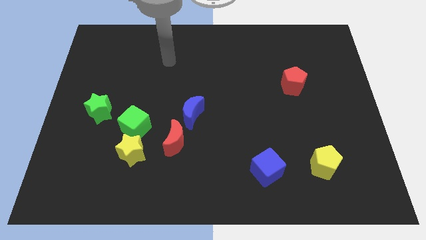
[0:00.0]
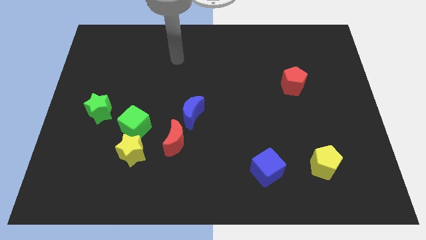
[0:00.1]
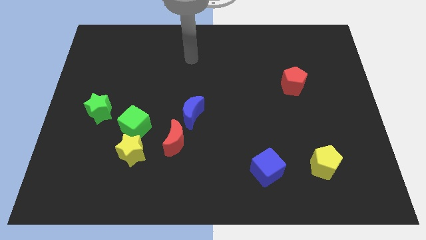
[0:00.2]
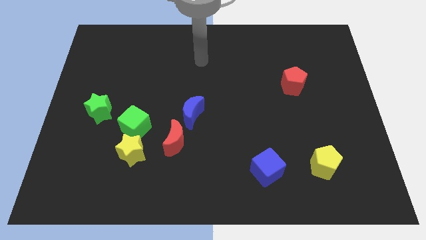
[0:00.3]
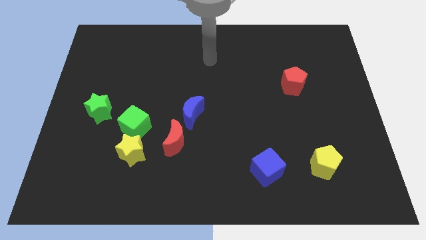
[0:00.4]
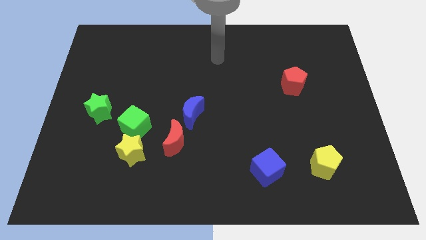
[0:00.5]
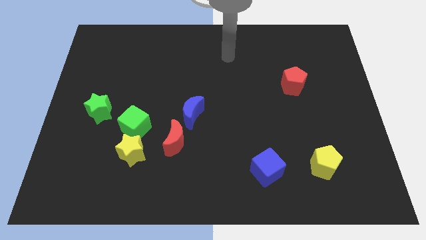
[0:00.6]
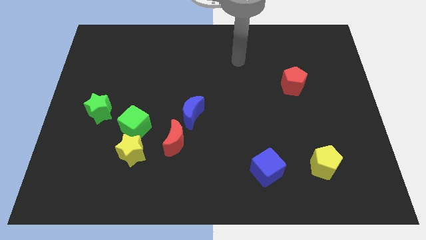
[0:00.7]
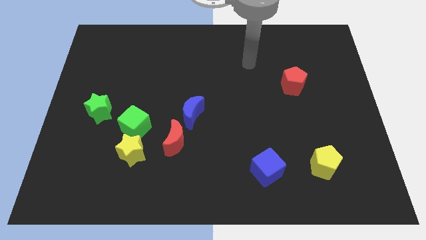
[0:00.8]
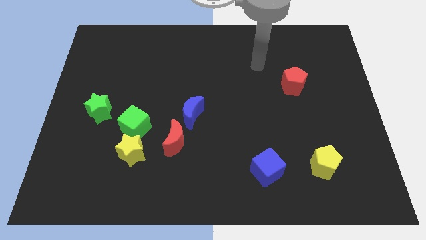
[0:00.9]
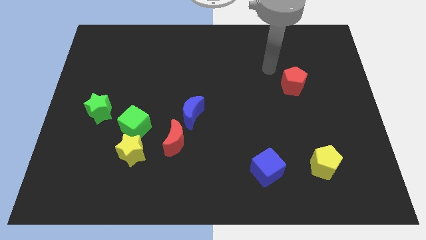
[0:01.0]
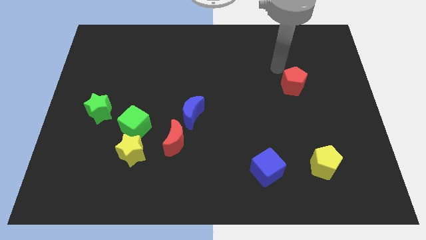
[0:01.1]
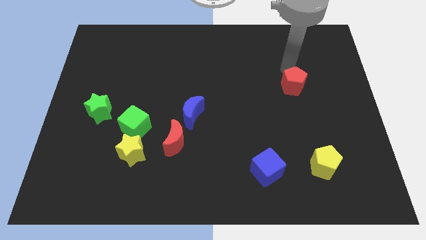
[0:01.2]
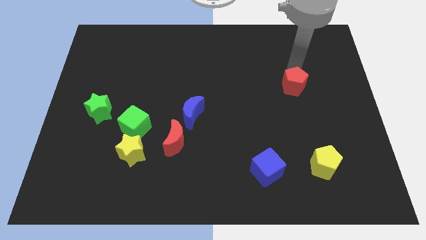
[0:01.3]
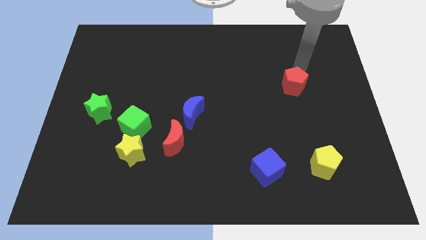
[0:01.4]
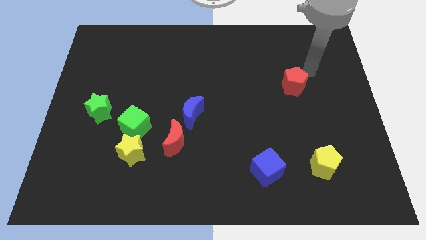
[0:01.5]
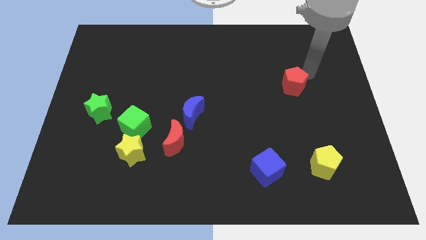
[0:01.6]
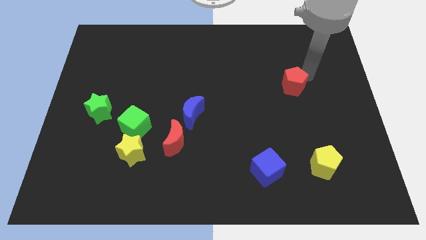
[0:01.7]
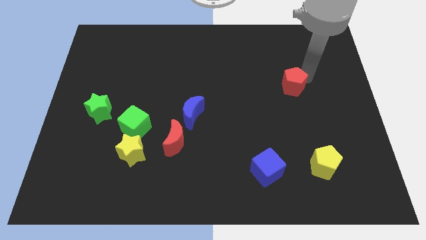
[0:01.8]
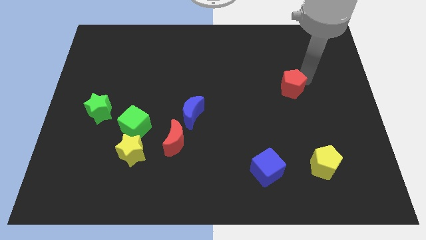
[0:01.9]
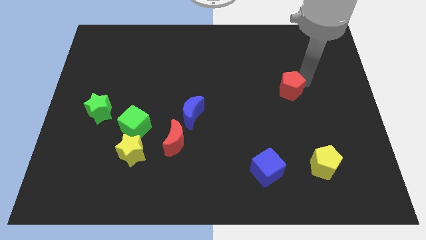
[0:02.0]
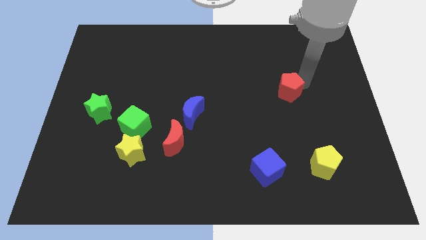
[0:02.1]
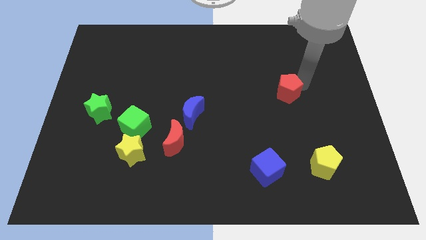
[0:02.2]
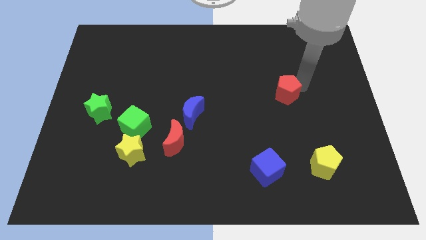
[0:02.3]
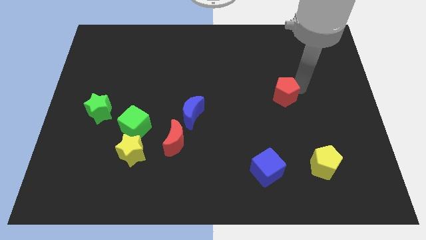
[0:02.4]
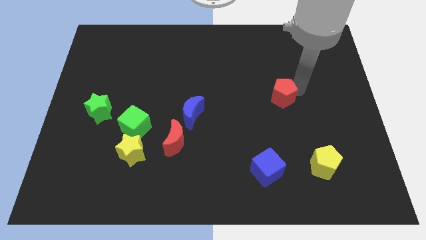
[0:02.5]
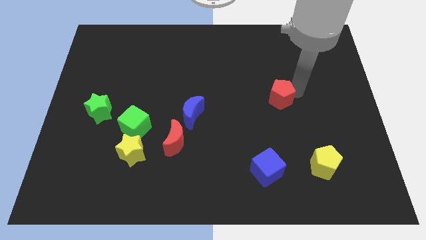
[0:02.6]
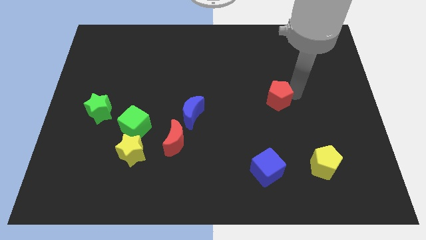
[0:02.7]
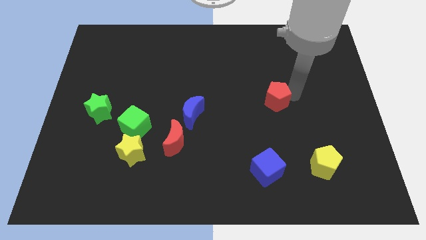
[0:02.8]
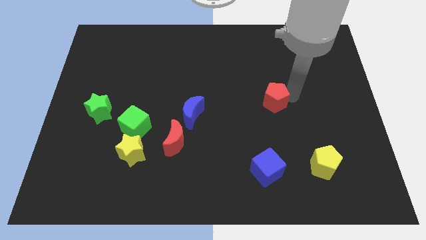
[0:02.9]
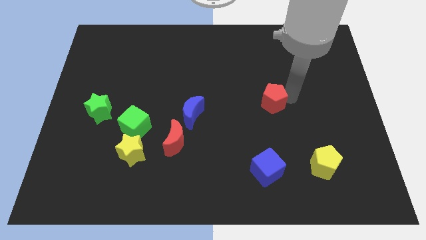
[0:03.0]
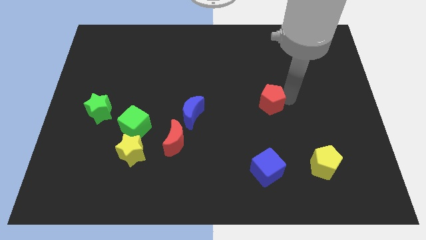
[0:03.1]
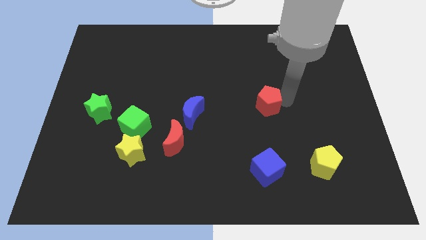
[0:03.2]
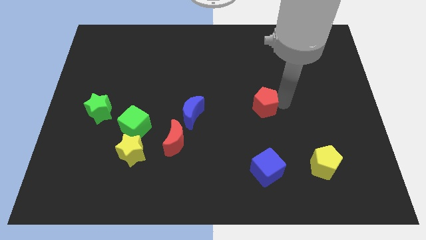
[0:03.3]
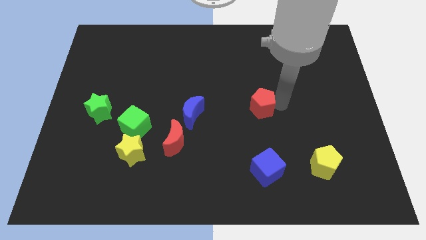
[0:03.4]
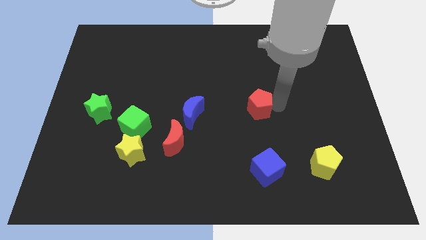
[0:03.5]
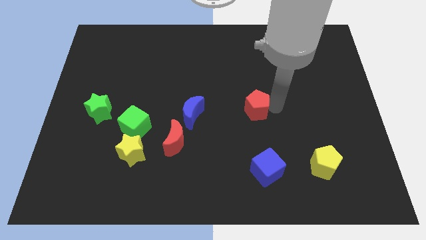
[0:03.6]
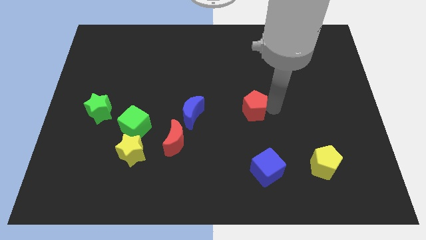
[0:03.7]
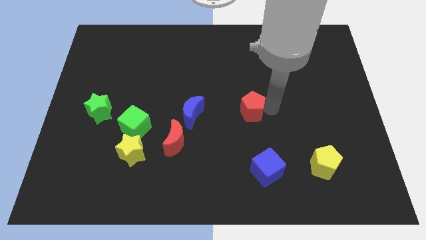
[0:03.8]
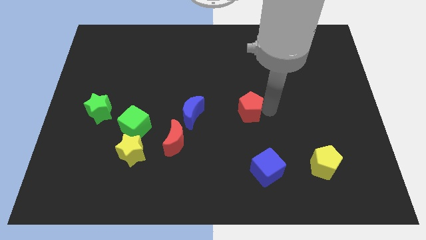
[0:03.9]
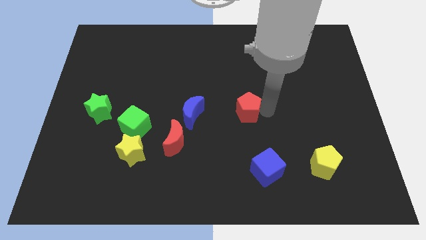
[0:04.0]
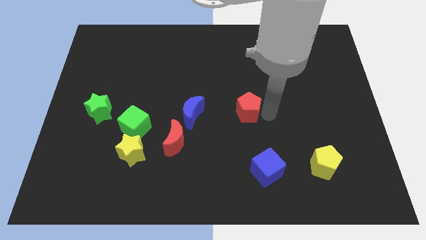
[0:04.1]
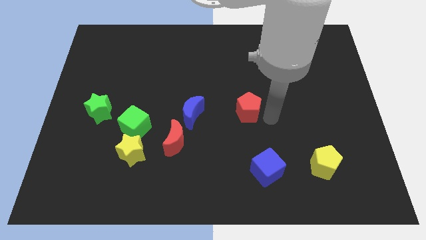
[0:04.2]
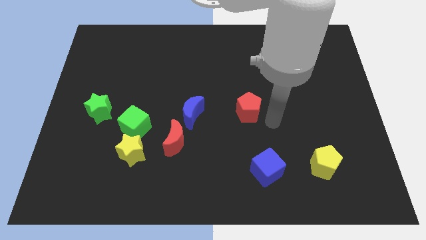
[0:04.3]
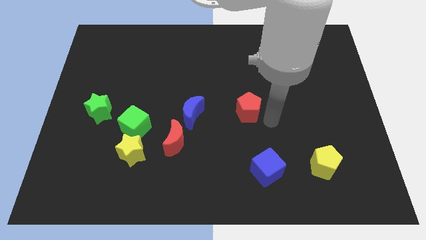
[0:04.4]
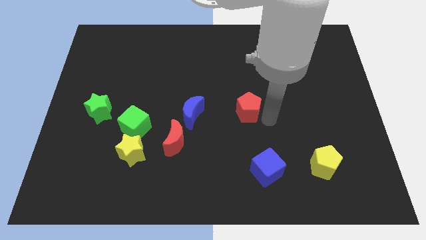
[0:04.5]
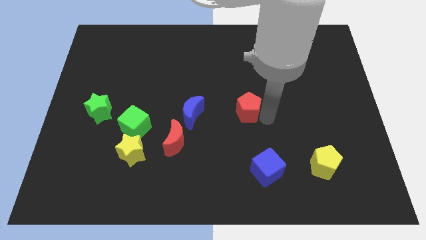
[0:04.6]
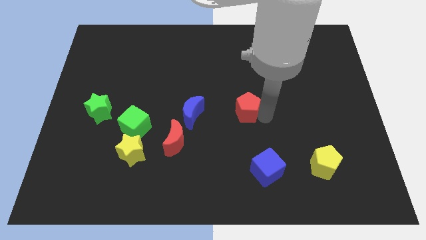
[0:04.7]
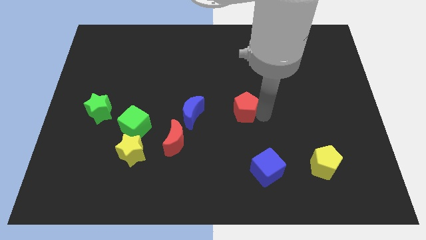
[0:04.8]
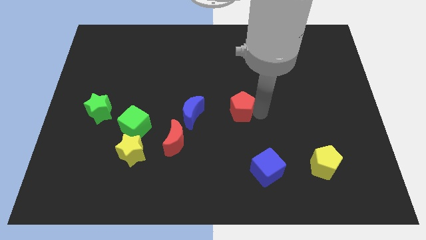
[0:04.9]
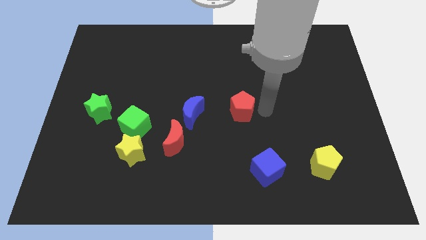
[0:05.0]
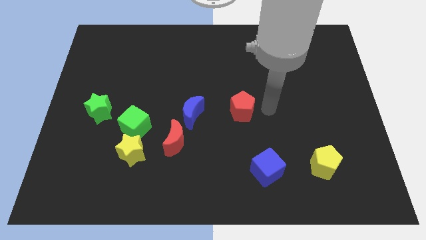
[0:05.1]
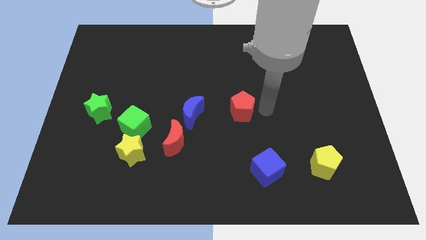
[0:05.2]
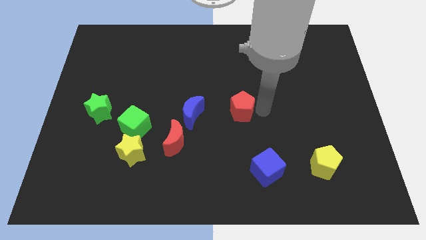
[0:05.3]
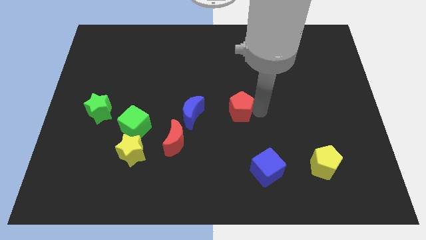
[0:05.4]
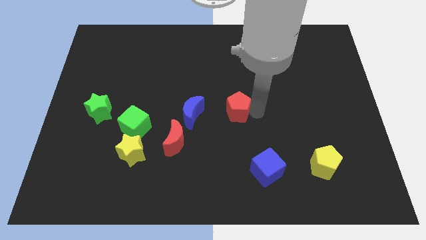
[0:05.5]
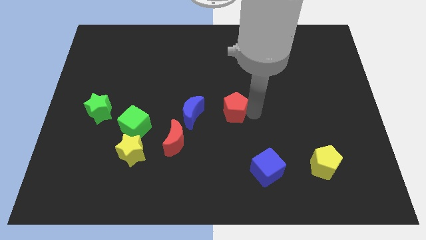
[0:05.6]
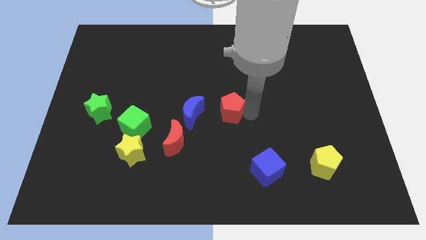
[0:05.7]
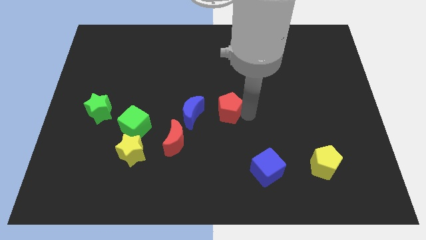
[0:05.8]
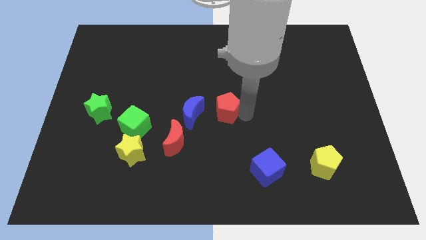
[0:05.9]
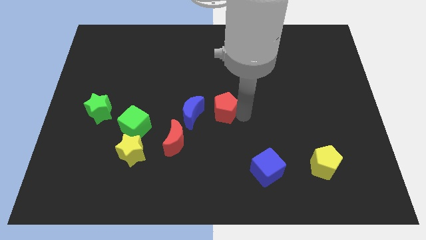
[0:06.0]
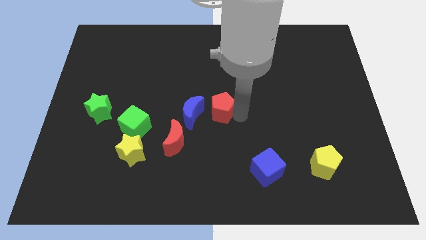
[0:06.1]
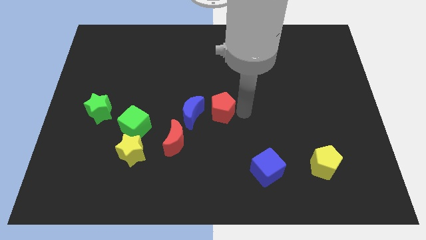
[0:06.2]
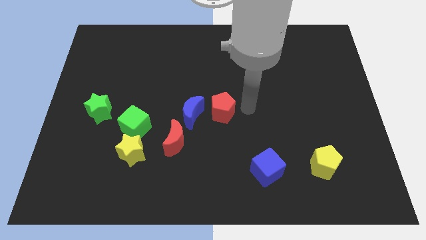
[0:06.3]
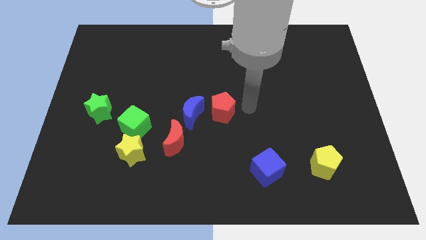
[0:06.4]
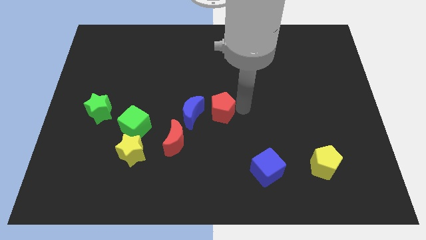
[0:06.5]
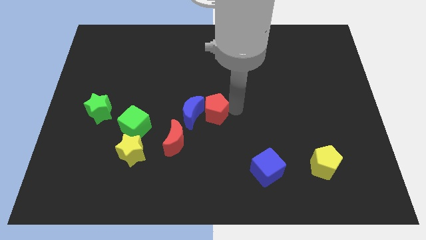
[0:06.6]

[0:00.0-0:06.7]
slide the red pentagon to the blue moon

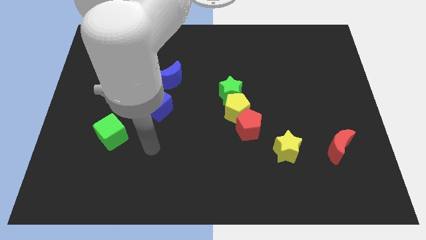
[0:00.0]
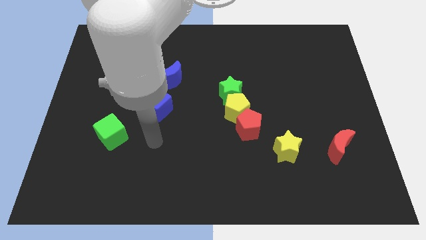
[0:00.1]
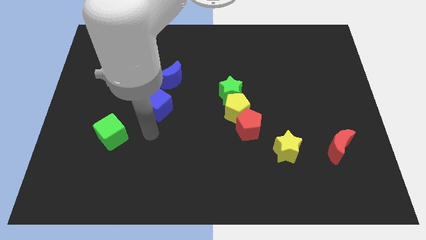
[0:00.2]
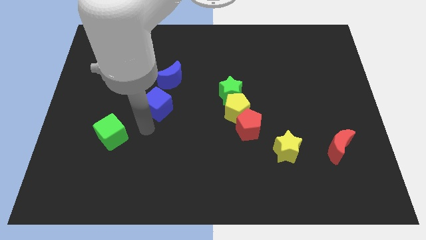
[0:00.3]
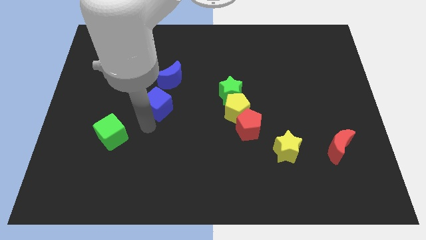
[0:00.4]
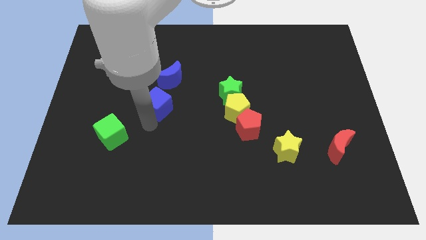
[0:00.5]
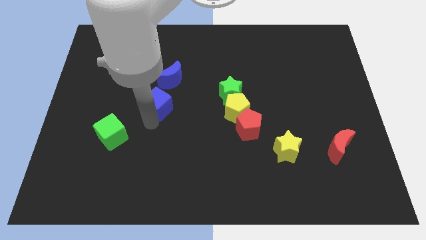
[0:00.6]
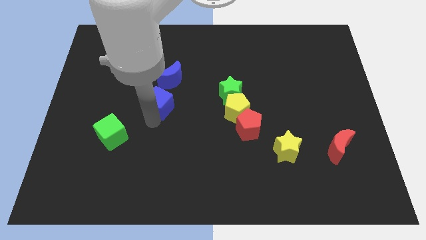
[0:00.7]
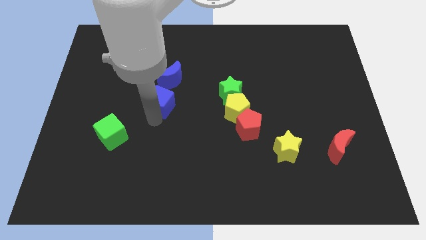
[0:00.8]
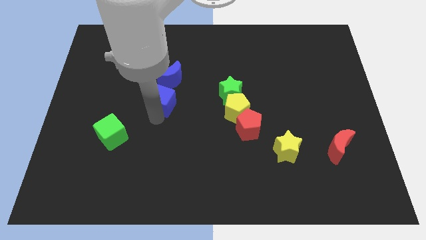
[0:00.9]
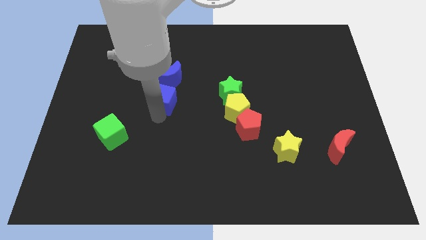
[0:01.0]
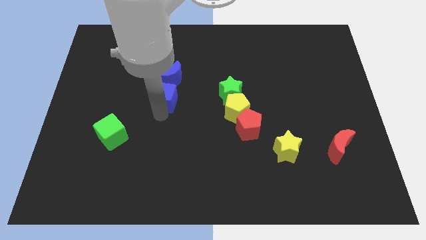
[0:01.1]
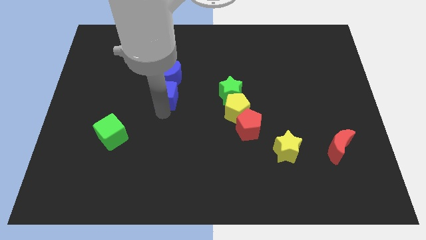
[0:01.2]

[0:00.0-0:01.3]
slide the blue cube close to the blue moon
